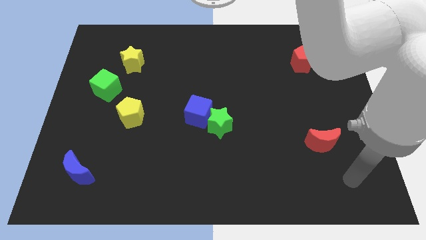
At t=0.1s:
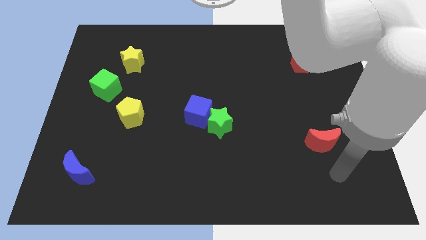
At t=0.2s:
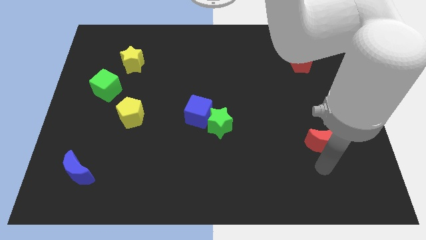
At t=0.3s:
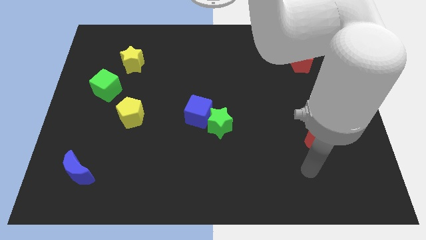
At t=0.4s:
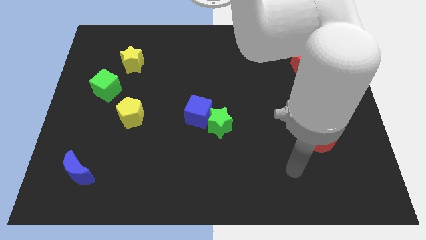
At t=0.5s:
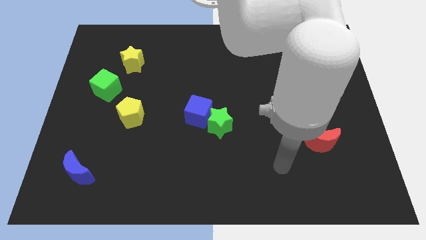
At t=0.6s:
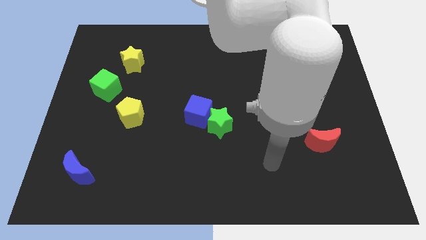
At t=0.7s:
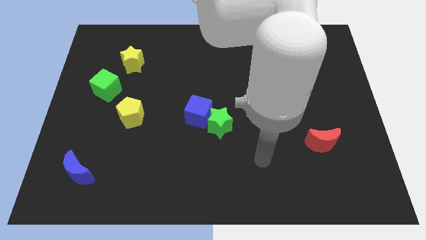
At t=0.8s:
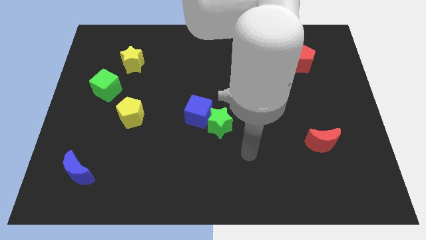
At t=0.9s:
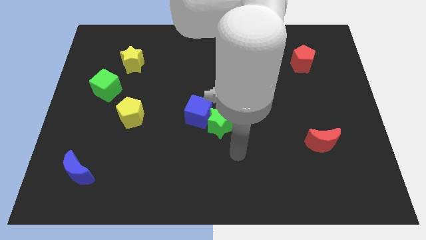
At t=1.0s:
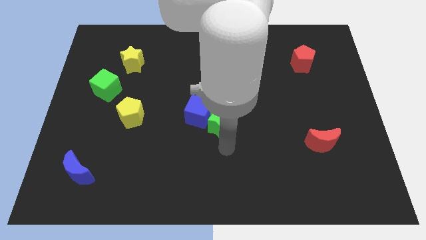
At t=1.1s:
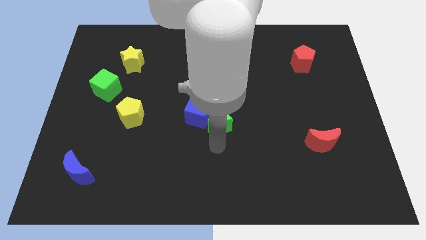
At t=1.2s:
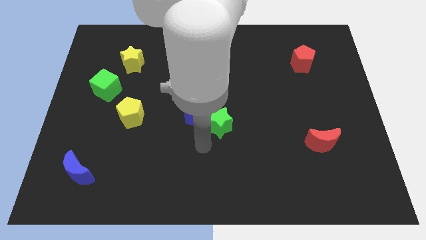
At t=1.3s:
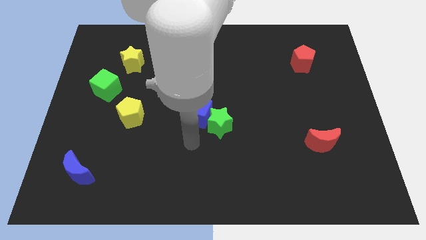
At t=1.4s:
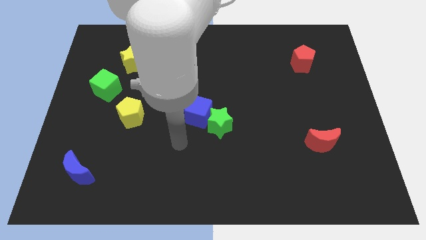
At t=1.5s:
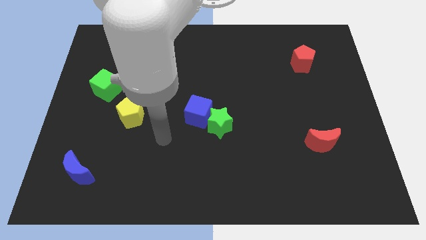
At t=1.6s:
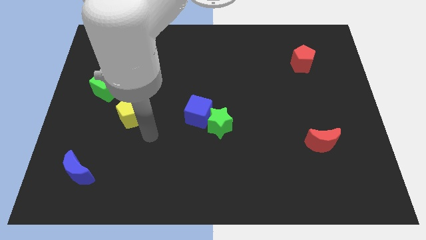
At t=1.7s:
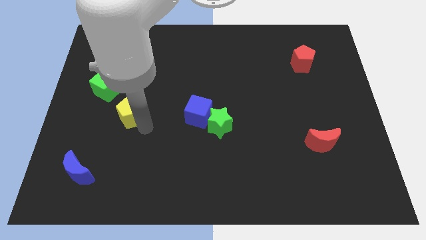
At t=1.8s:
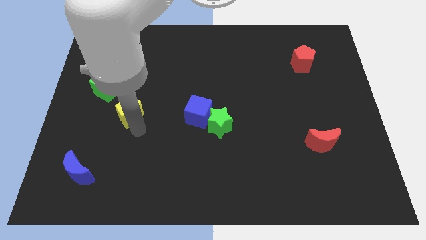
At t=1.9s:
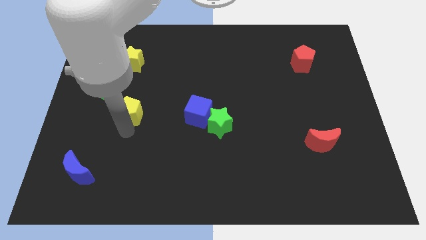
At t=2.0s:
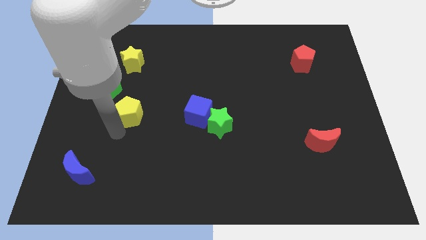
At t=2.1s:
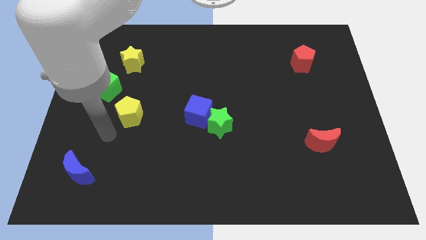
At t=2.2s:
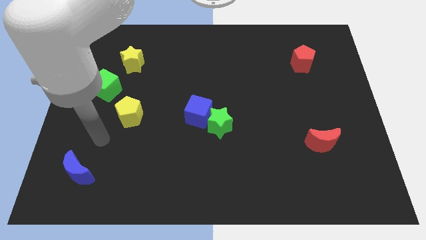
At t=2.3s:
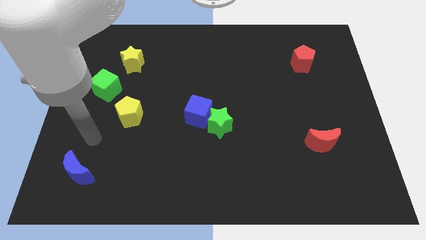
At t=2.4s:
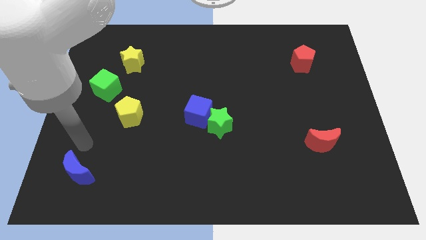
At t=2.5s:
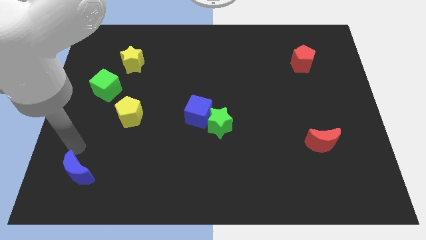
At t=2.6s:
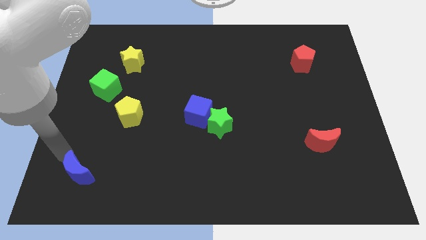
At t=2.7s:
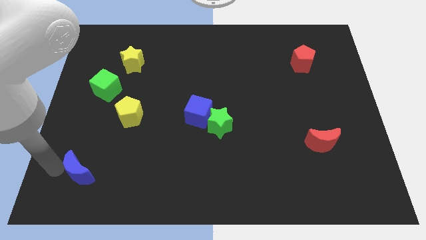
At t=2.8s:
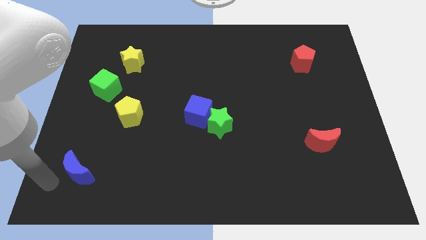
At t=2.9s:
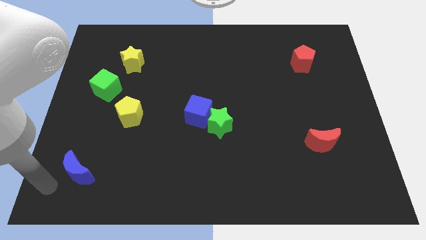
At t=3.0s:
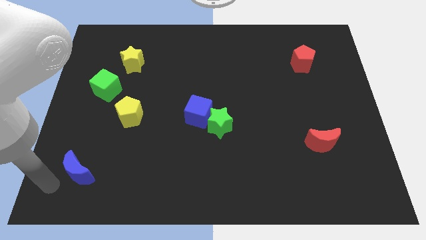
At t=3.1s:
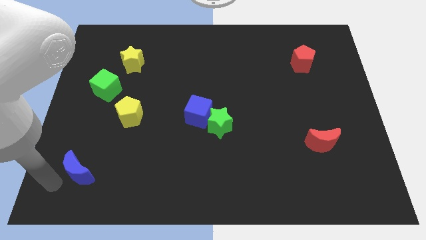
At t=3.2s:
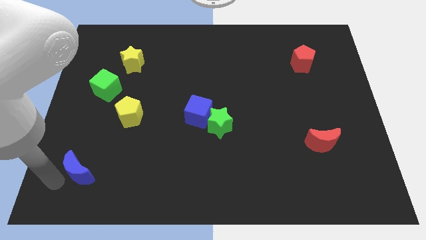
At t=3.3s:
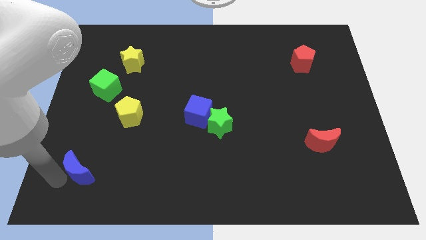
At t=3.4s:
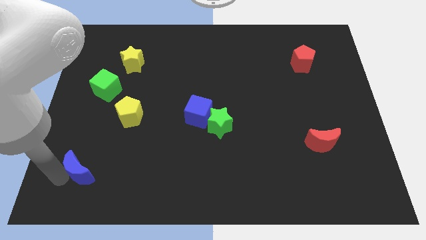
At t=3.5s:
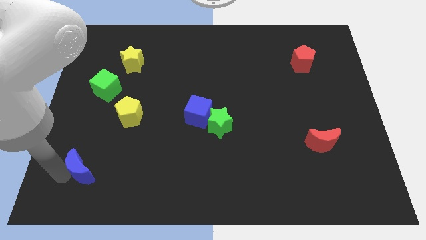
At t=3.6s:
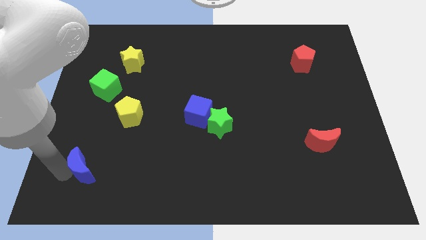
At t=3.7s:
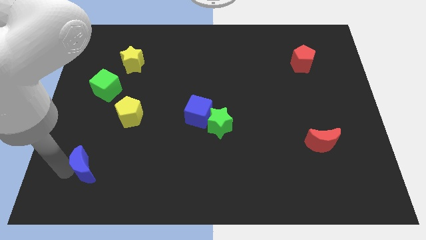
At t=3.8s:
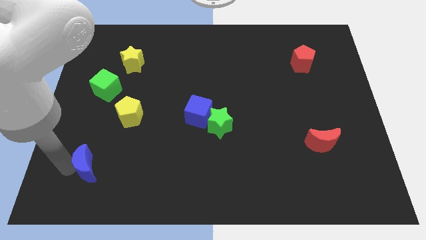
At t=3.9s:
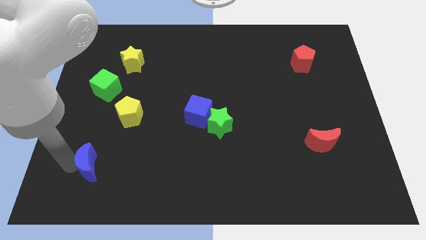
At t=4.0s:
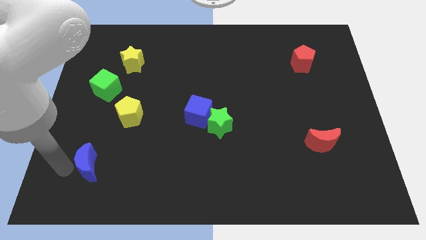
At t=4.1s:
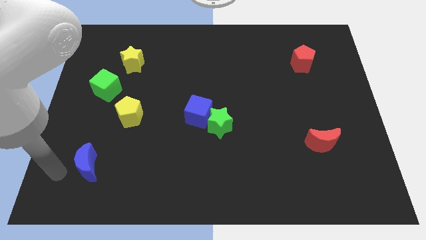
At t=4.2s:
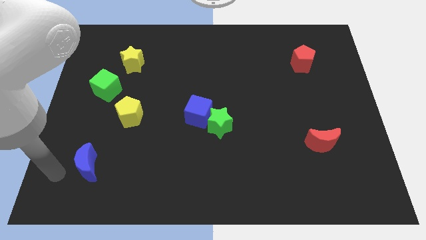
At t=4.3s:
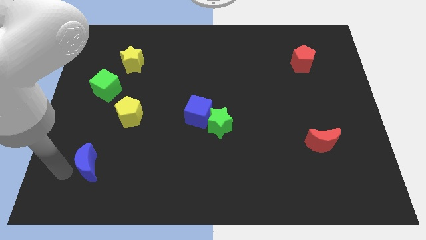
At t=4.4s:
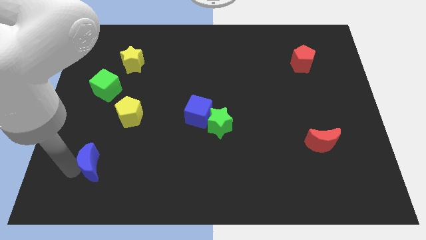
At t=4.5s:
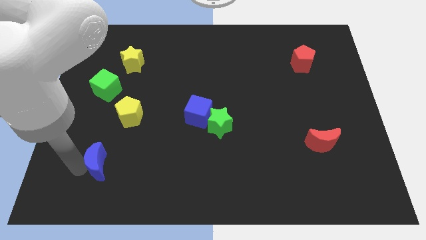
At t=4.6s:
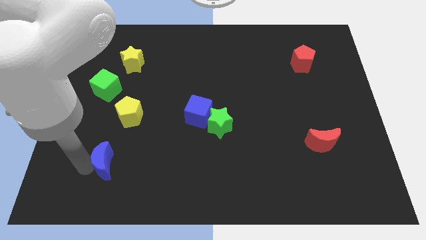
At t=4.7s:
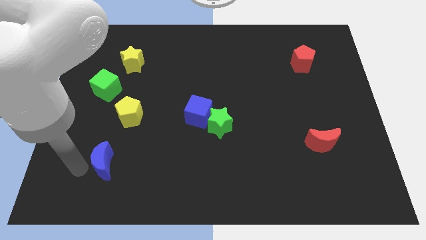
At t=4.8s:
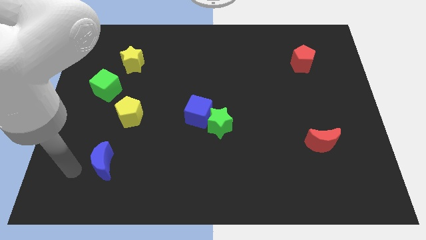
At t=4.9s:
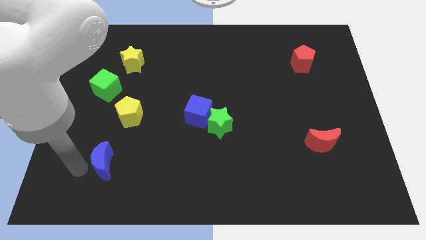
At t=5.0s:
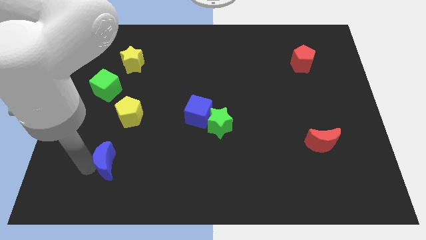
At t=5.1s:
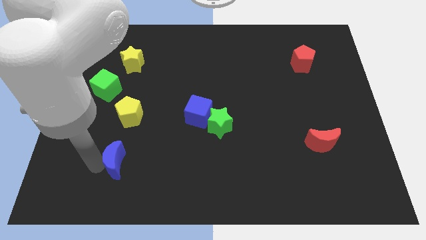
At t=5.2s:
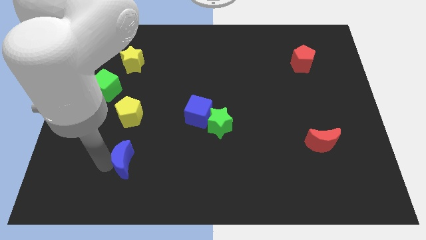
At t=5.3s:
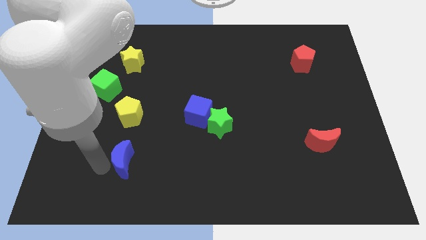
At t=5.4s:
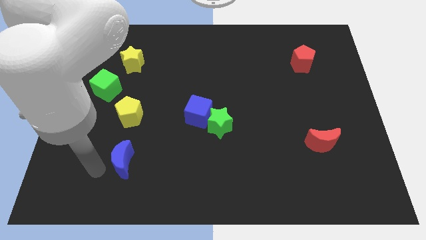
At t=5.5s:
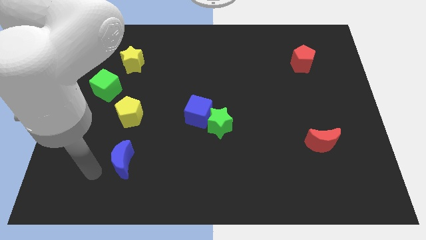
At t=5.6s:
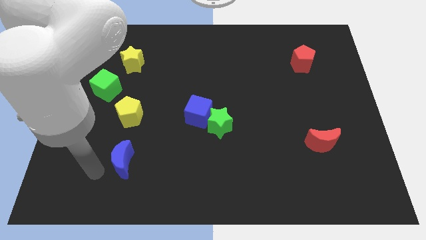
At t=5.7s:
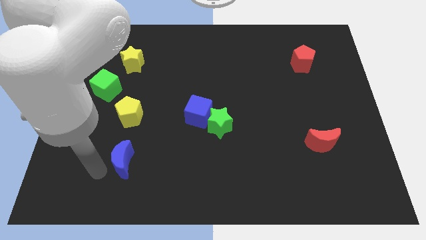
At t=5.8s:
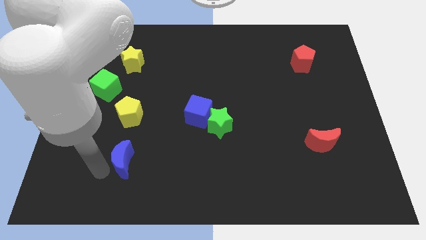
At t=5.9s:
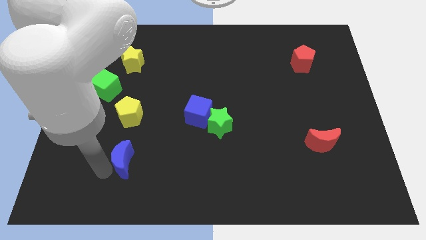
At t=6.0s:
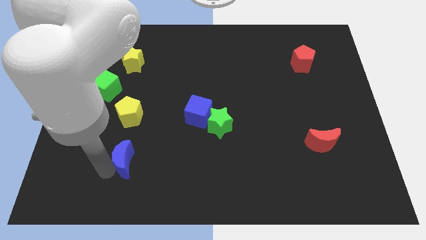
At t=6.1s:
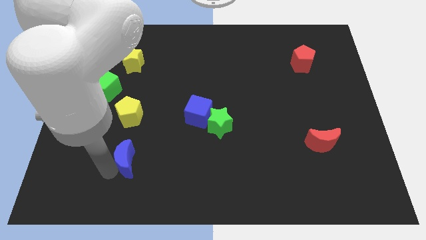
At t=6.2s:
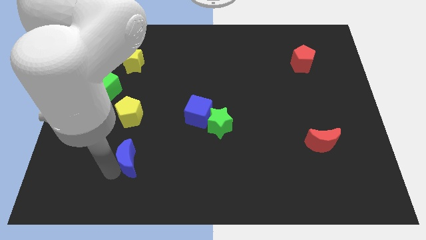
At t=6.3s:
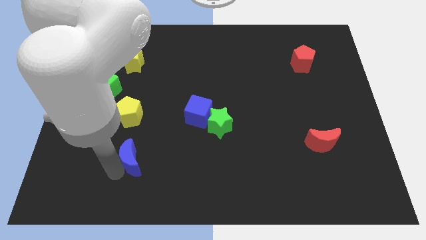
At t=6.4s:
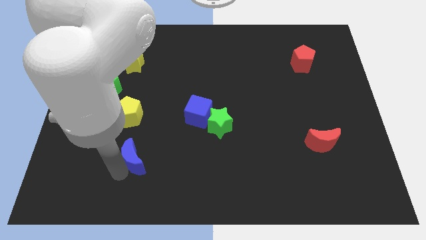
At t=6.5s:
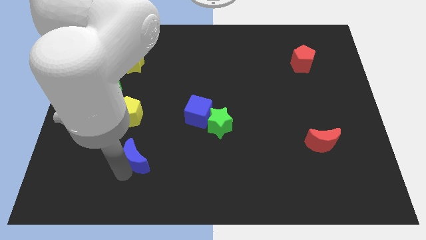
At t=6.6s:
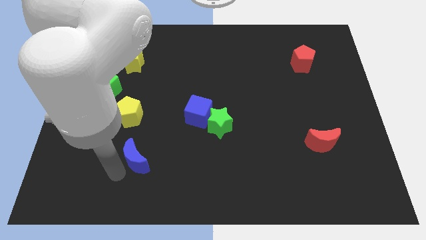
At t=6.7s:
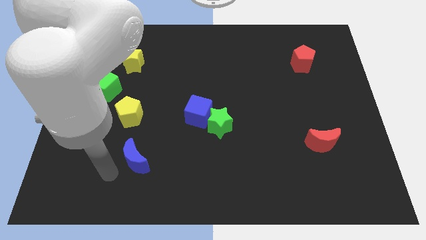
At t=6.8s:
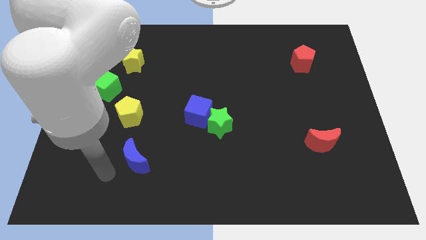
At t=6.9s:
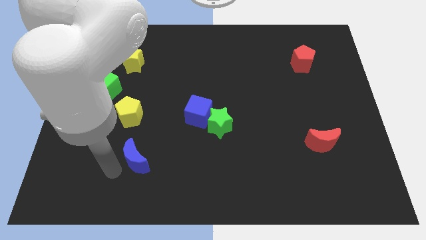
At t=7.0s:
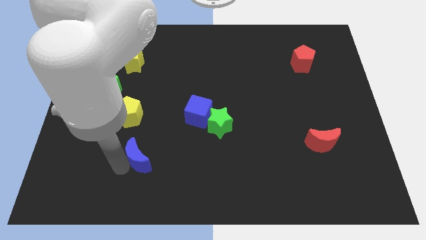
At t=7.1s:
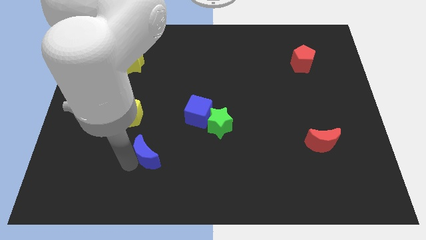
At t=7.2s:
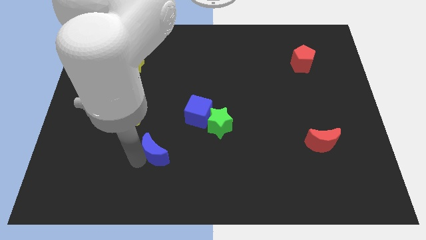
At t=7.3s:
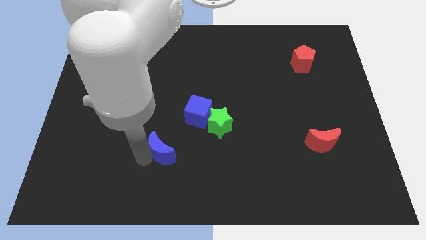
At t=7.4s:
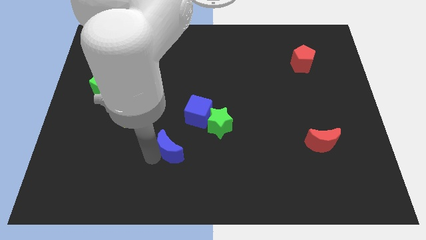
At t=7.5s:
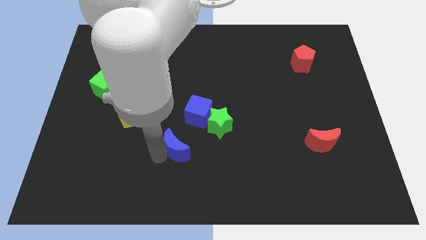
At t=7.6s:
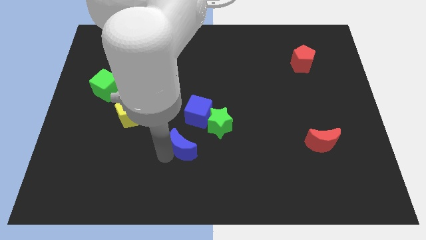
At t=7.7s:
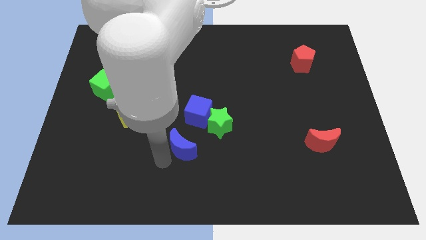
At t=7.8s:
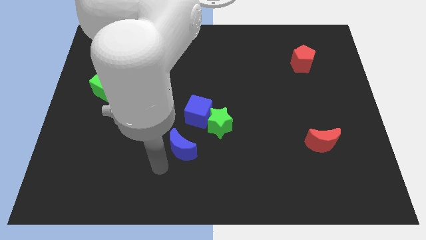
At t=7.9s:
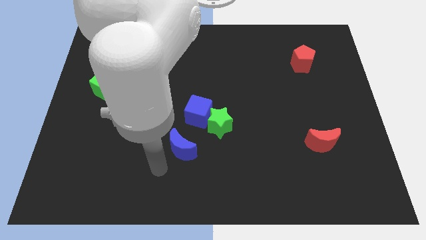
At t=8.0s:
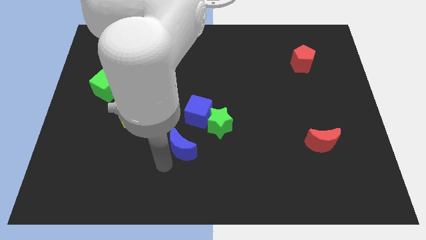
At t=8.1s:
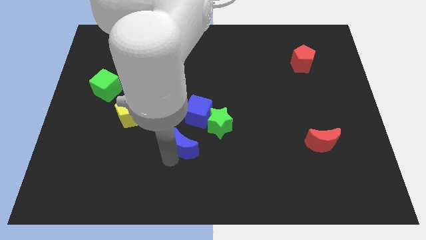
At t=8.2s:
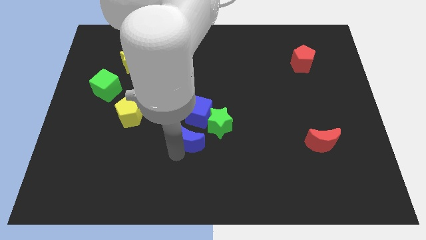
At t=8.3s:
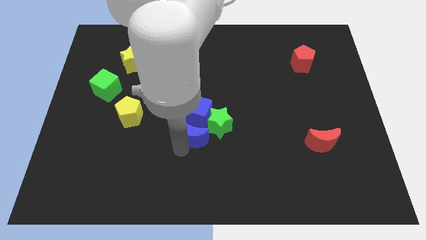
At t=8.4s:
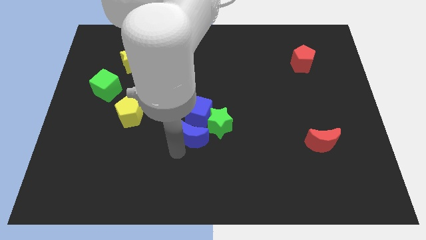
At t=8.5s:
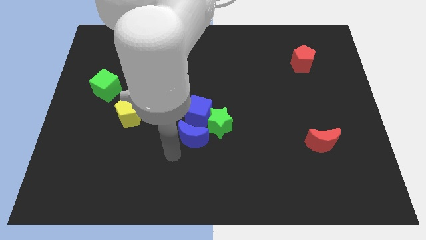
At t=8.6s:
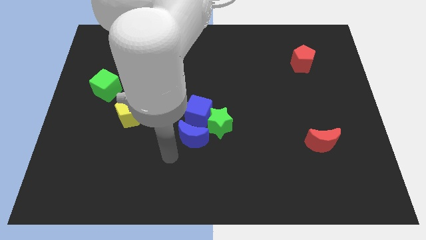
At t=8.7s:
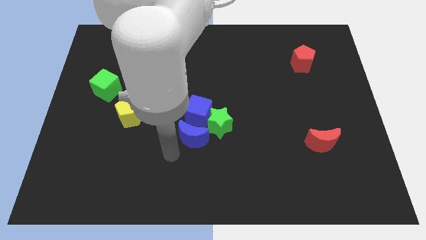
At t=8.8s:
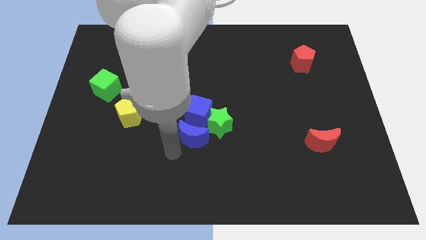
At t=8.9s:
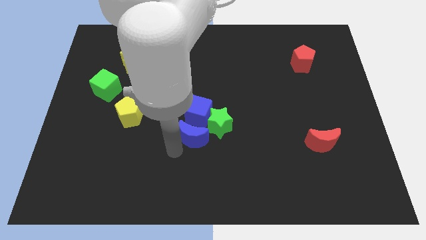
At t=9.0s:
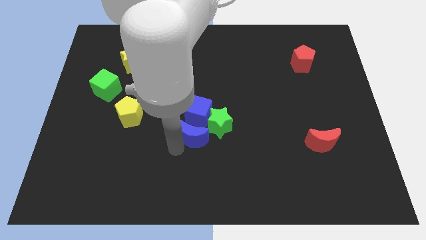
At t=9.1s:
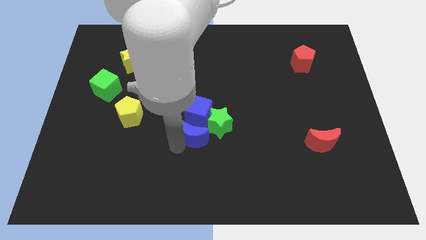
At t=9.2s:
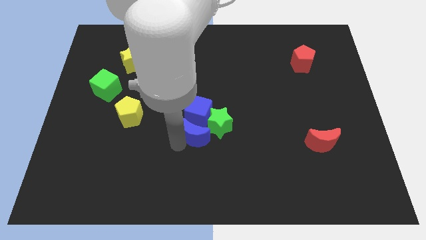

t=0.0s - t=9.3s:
move the blue moon towards the green star
